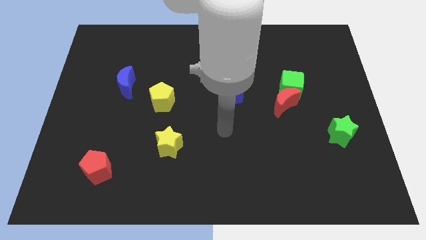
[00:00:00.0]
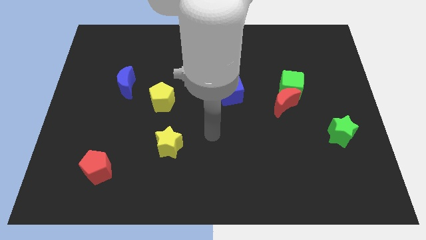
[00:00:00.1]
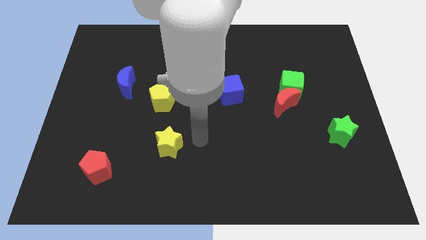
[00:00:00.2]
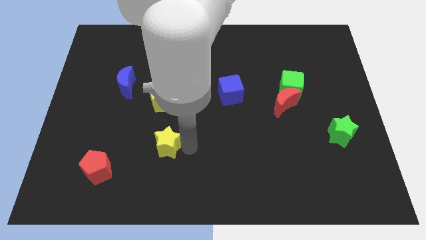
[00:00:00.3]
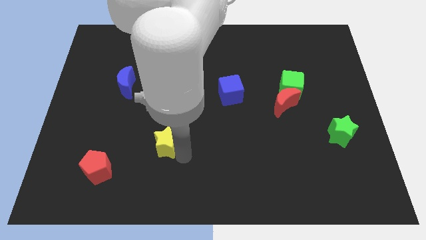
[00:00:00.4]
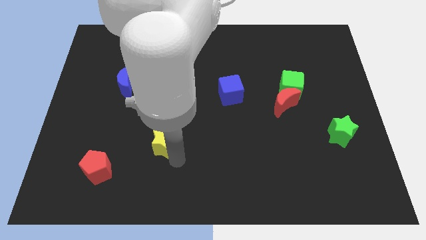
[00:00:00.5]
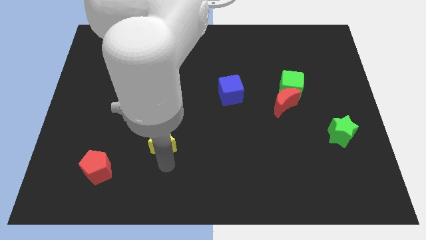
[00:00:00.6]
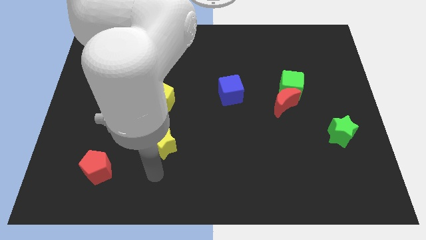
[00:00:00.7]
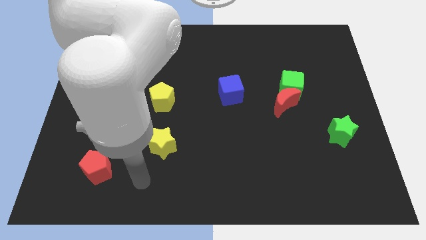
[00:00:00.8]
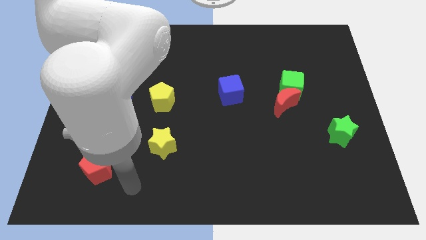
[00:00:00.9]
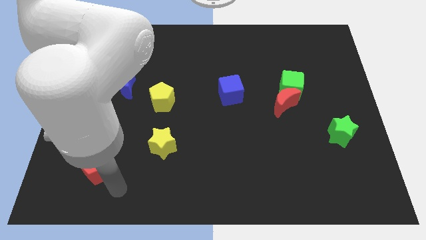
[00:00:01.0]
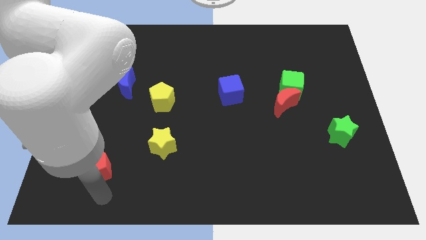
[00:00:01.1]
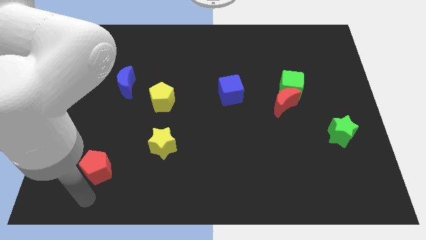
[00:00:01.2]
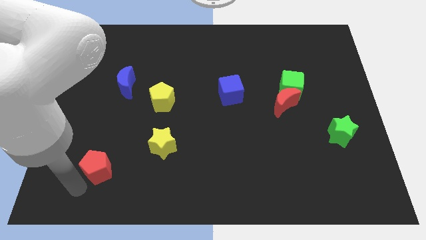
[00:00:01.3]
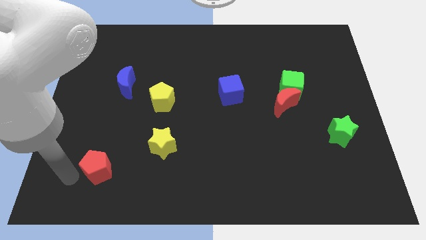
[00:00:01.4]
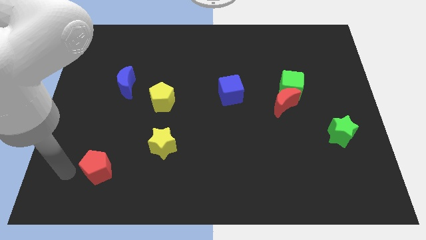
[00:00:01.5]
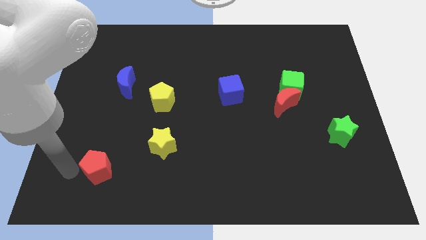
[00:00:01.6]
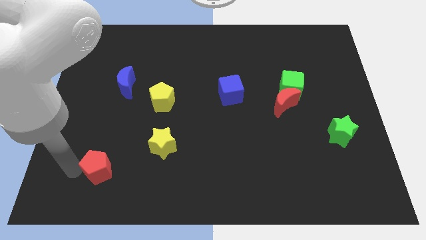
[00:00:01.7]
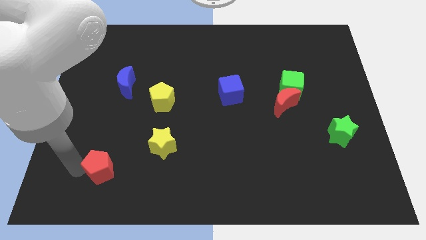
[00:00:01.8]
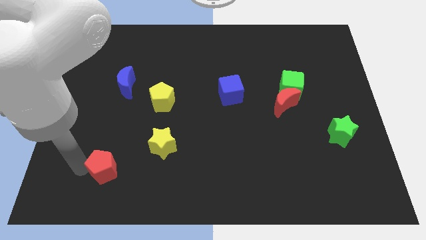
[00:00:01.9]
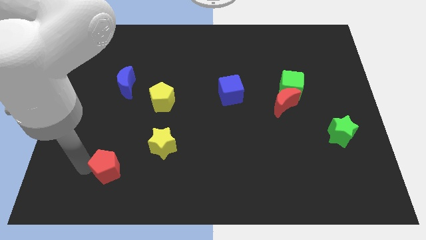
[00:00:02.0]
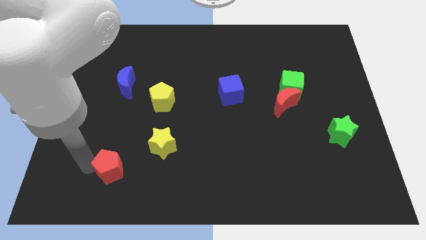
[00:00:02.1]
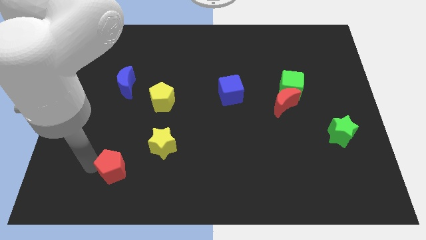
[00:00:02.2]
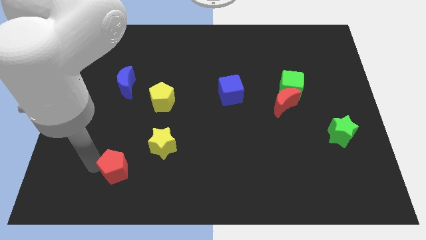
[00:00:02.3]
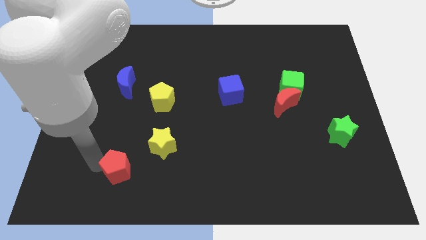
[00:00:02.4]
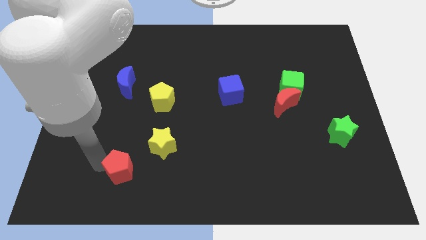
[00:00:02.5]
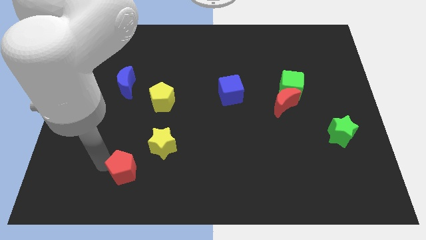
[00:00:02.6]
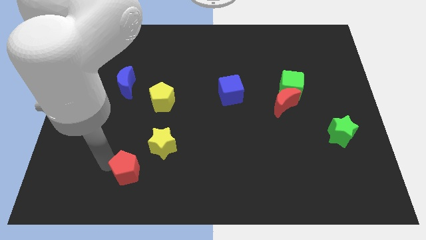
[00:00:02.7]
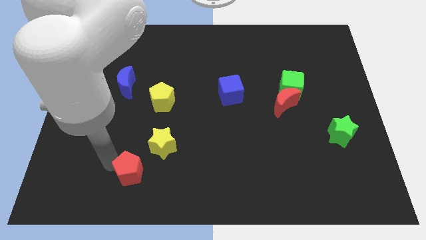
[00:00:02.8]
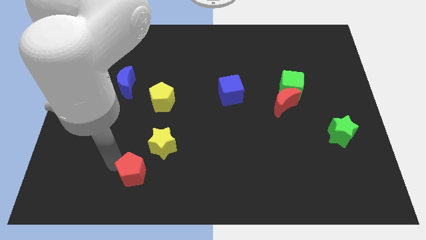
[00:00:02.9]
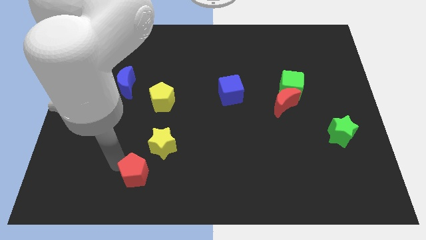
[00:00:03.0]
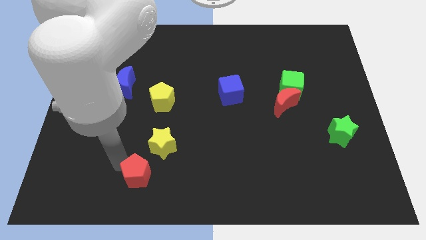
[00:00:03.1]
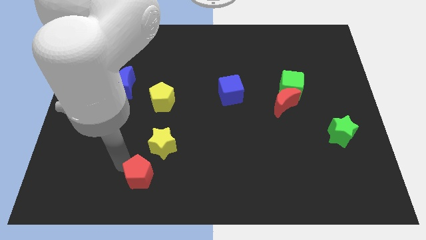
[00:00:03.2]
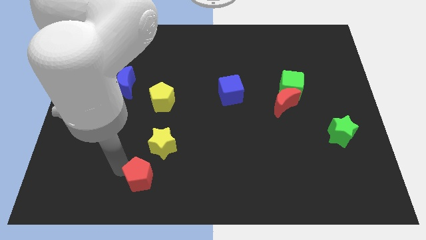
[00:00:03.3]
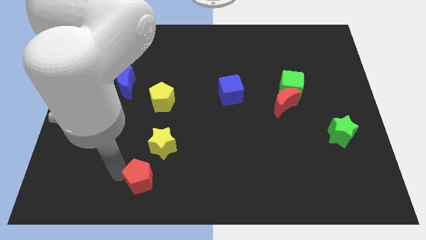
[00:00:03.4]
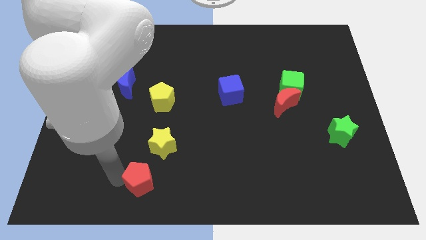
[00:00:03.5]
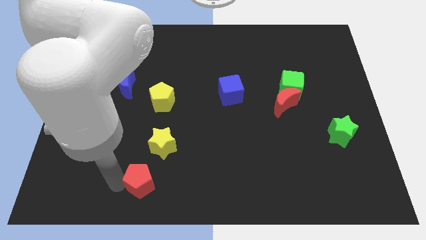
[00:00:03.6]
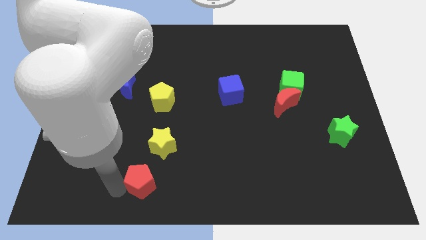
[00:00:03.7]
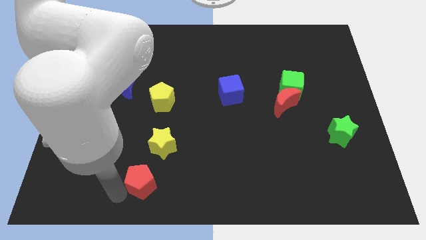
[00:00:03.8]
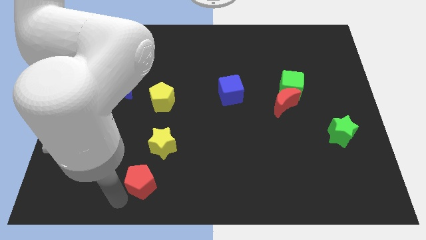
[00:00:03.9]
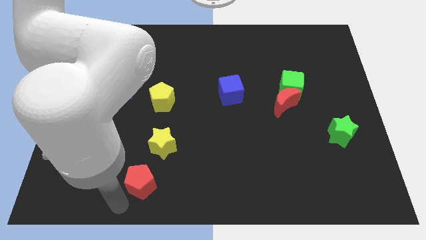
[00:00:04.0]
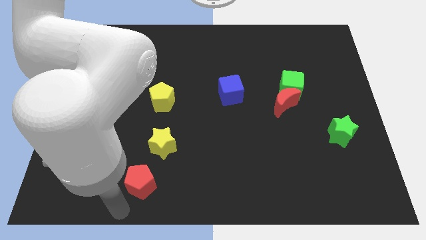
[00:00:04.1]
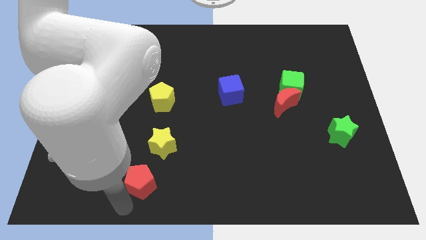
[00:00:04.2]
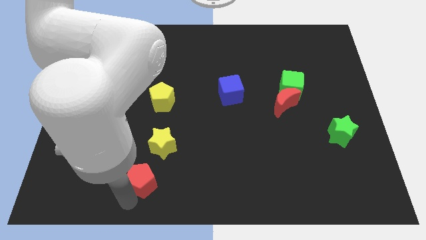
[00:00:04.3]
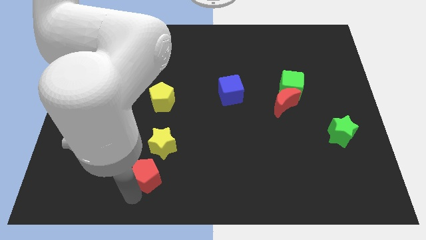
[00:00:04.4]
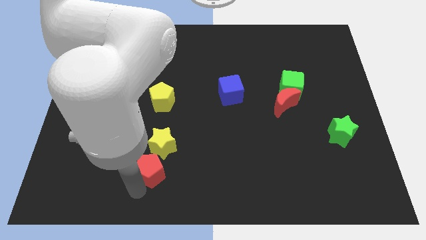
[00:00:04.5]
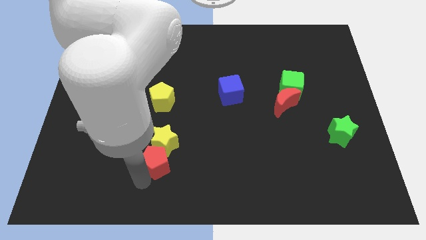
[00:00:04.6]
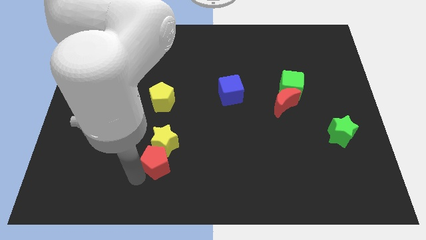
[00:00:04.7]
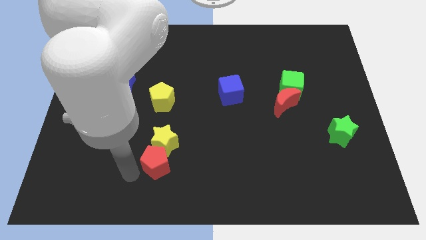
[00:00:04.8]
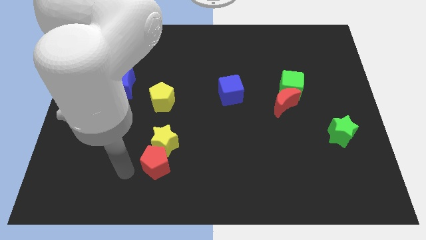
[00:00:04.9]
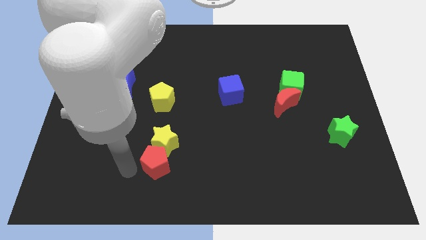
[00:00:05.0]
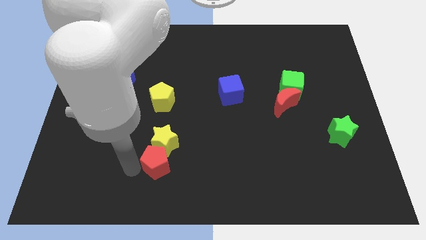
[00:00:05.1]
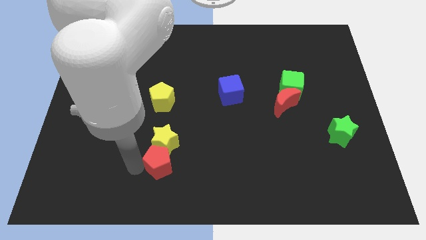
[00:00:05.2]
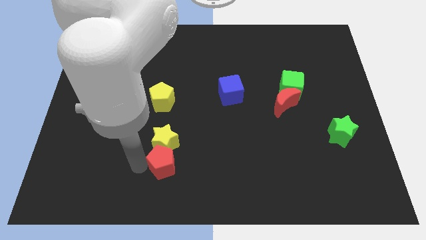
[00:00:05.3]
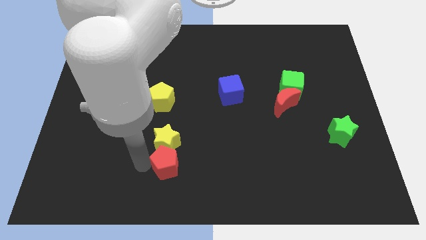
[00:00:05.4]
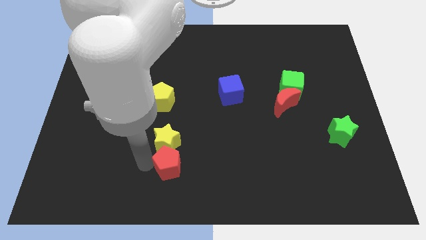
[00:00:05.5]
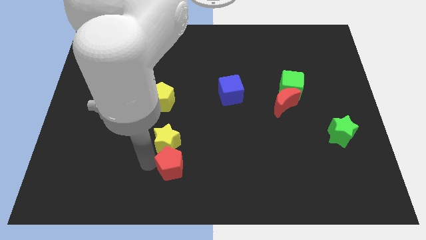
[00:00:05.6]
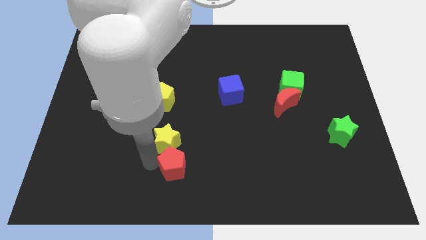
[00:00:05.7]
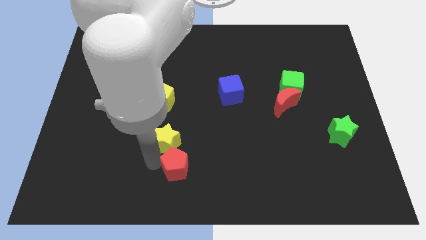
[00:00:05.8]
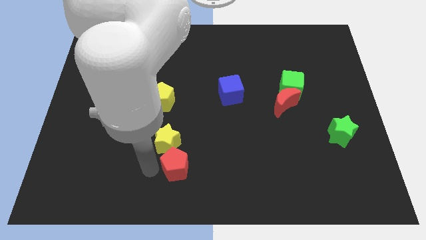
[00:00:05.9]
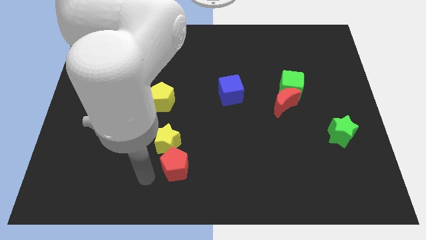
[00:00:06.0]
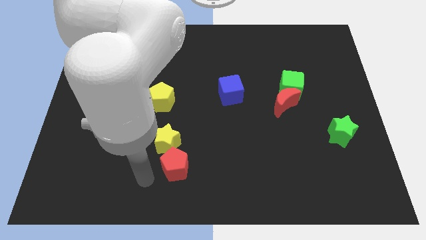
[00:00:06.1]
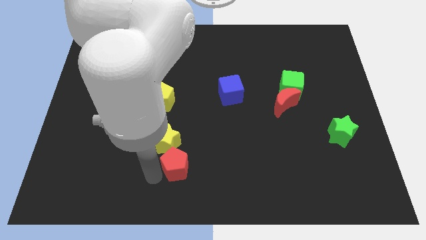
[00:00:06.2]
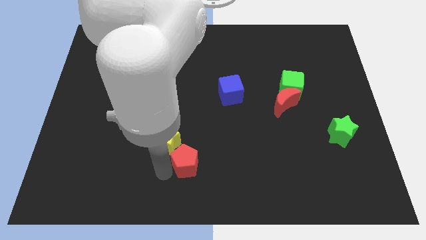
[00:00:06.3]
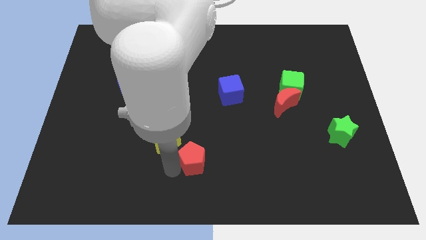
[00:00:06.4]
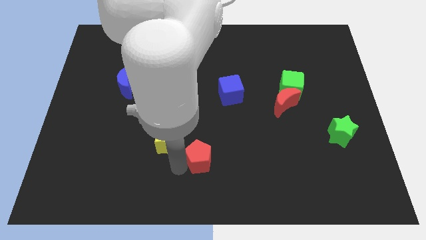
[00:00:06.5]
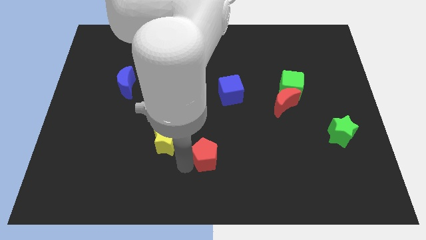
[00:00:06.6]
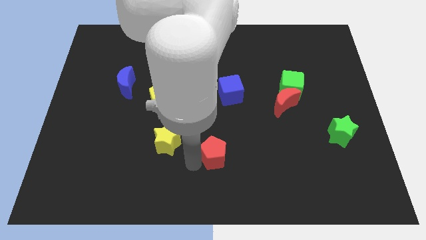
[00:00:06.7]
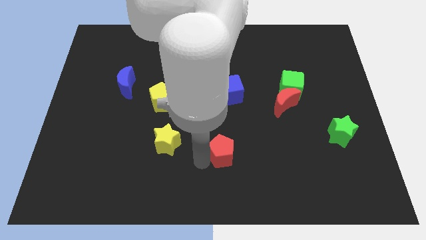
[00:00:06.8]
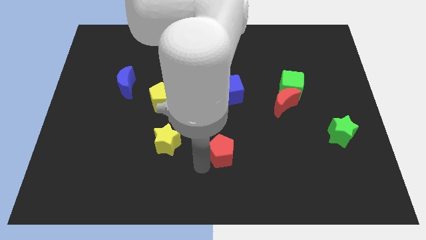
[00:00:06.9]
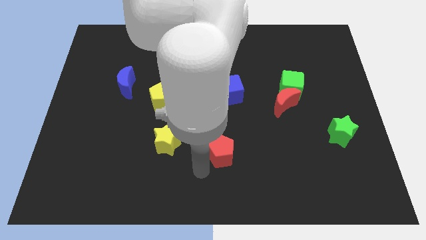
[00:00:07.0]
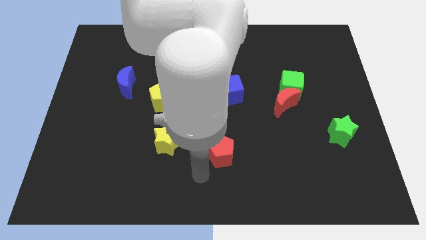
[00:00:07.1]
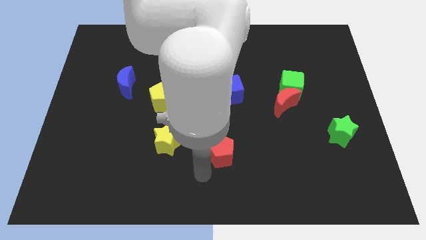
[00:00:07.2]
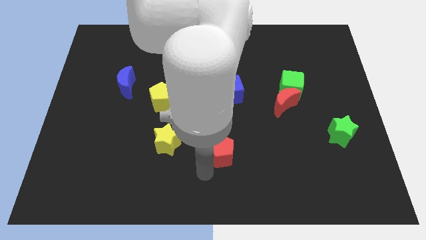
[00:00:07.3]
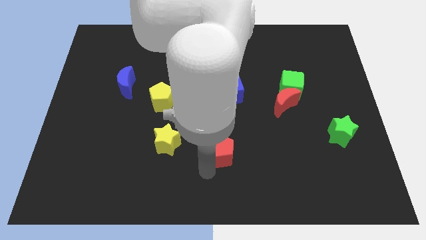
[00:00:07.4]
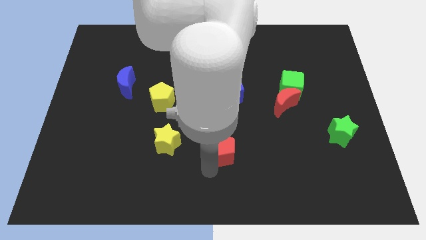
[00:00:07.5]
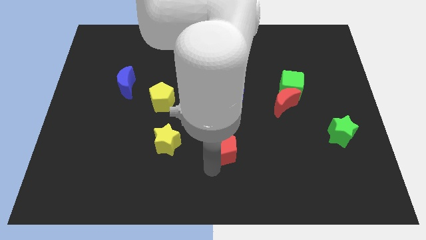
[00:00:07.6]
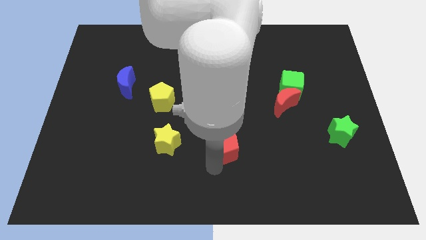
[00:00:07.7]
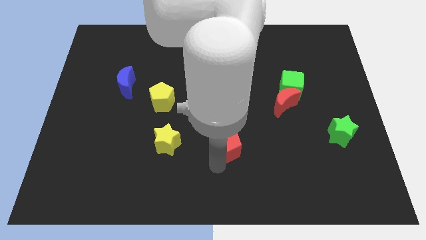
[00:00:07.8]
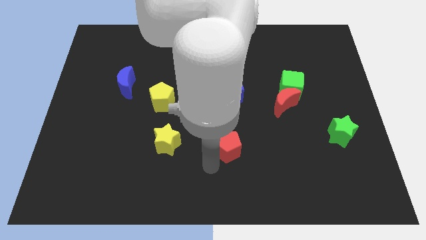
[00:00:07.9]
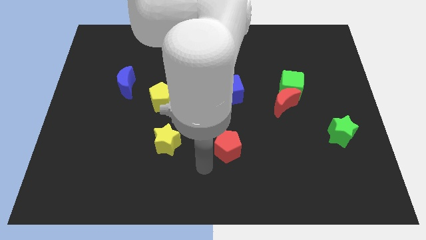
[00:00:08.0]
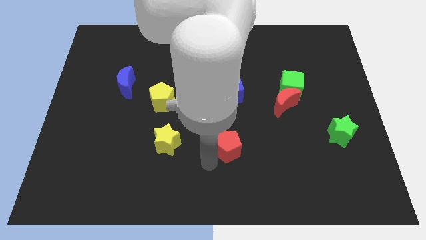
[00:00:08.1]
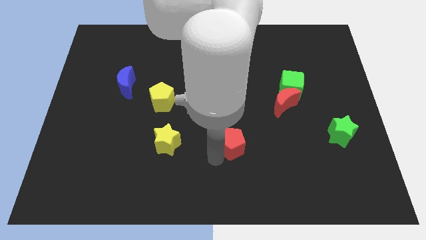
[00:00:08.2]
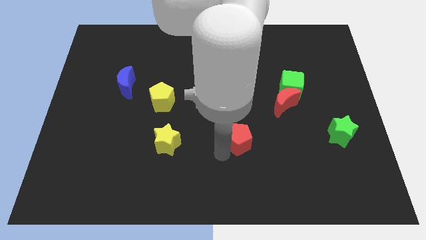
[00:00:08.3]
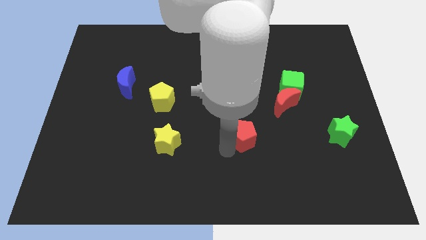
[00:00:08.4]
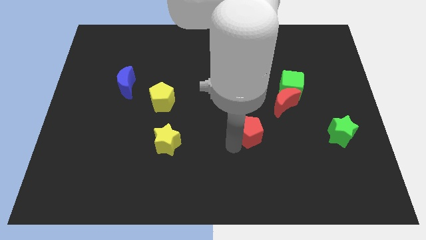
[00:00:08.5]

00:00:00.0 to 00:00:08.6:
move the red pentagon to the bottom left of the red moon
